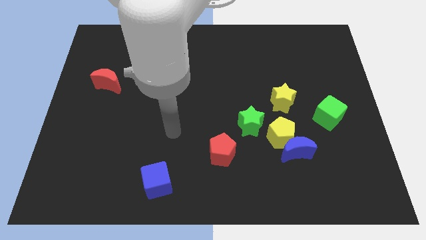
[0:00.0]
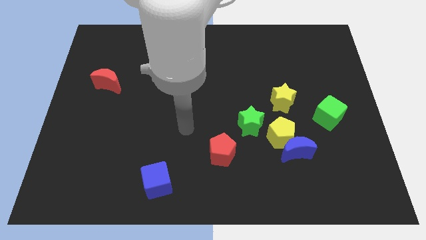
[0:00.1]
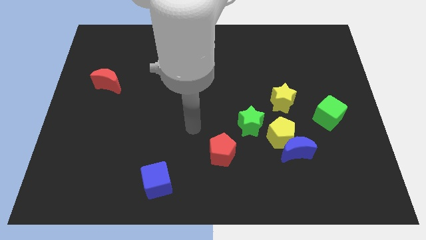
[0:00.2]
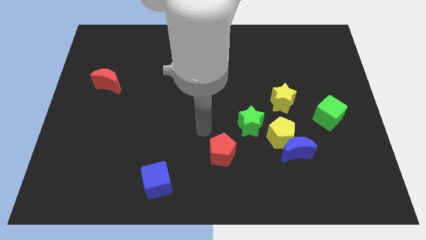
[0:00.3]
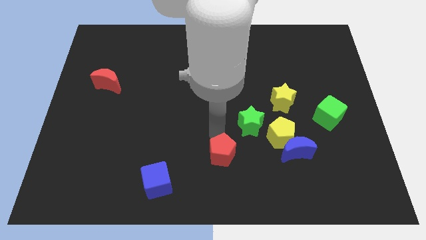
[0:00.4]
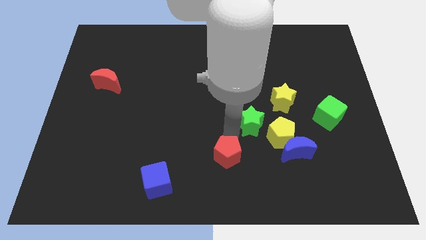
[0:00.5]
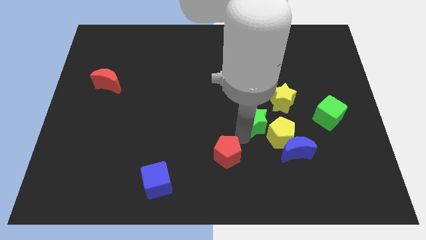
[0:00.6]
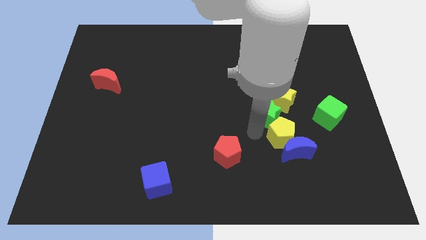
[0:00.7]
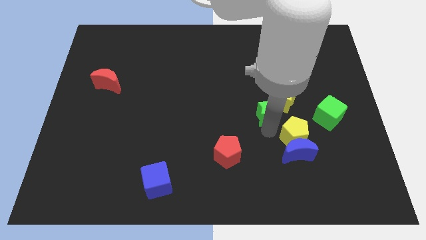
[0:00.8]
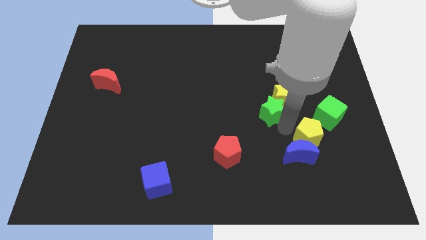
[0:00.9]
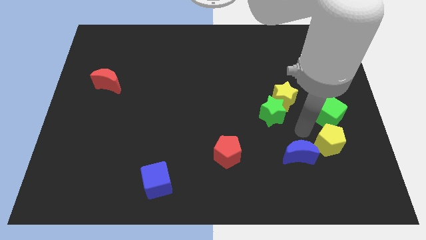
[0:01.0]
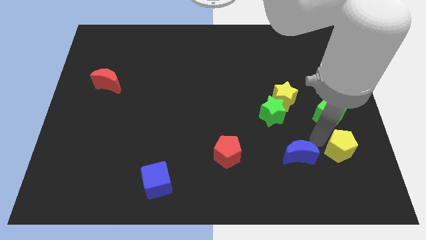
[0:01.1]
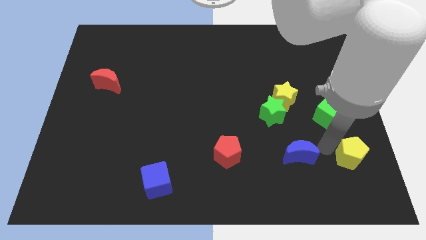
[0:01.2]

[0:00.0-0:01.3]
pull the blue moon apart from the yellow pentagon

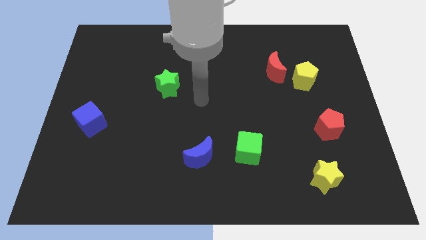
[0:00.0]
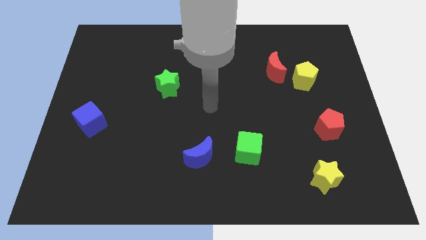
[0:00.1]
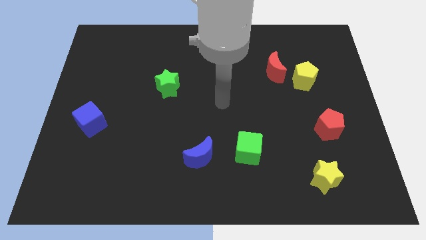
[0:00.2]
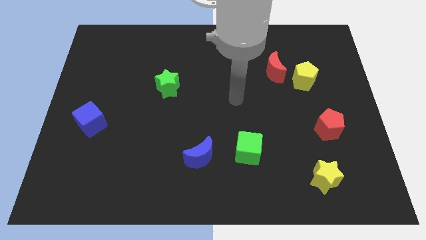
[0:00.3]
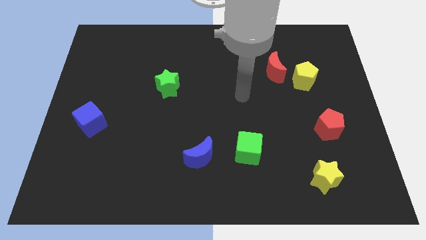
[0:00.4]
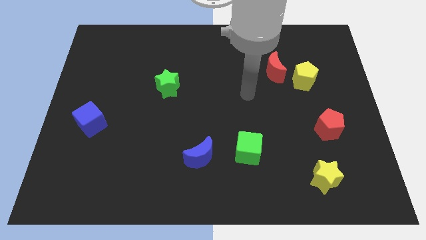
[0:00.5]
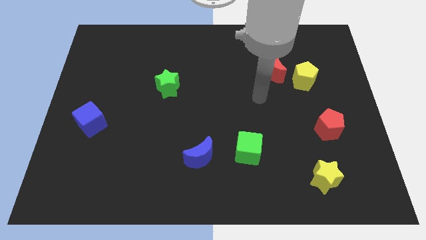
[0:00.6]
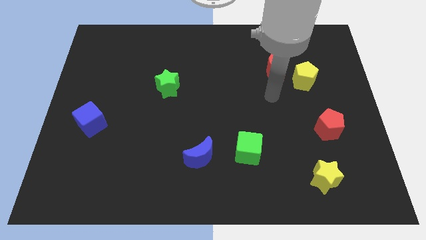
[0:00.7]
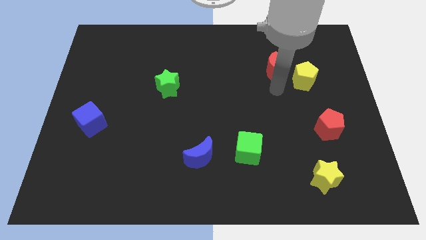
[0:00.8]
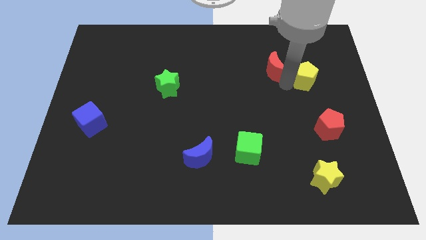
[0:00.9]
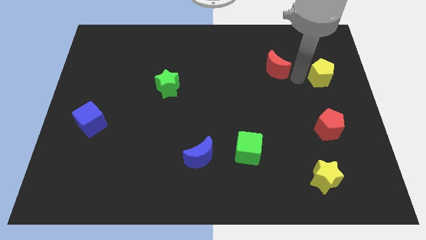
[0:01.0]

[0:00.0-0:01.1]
separate the red moon from the yellow pentagon

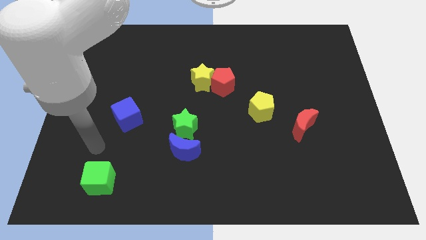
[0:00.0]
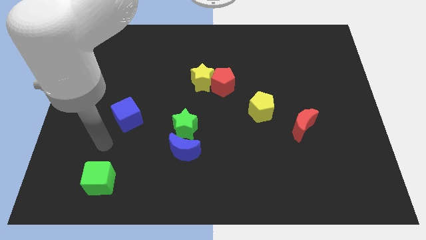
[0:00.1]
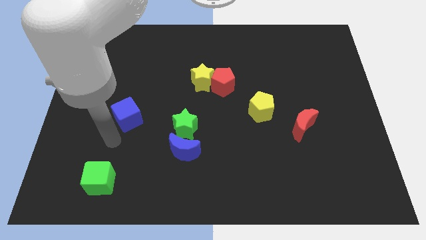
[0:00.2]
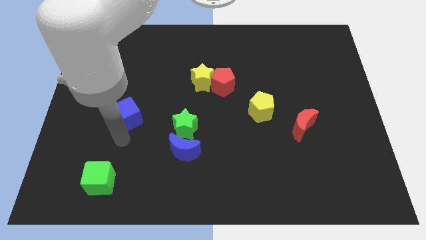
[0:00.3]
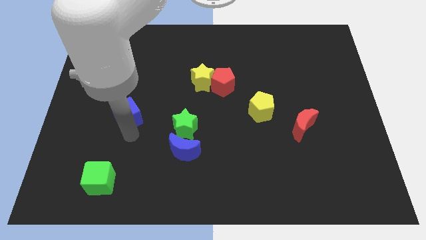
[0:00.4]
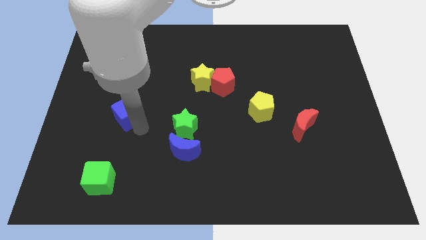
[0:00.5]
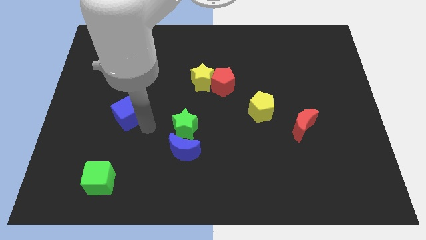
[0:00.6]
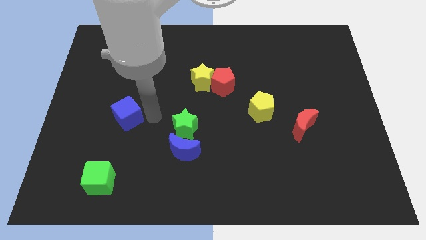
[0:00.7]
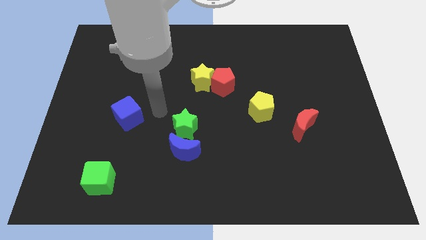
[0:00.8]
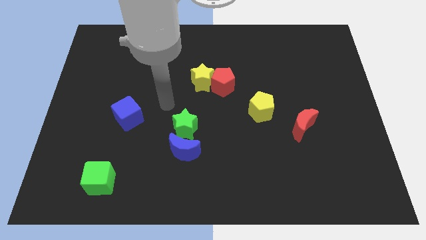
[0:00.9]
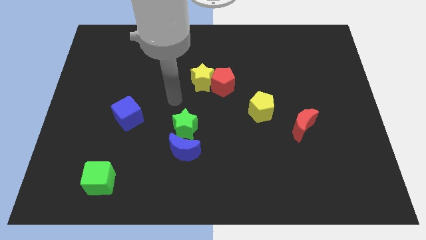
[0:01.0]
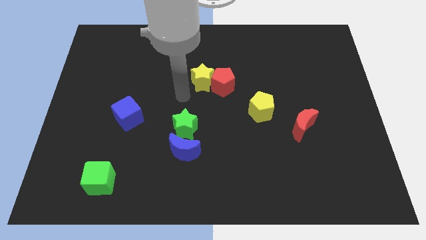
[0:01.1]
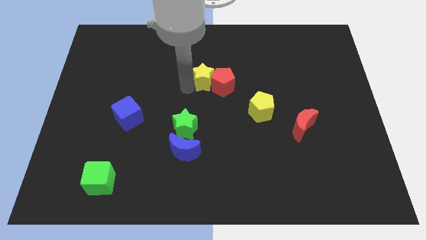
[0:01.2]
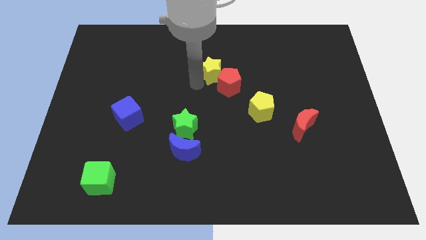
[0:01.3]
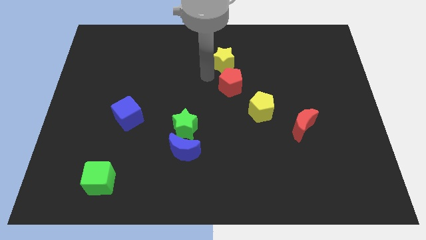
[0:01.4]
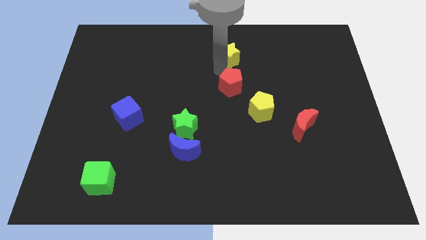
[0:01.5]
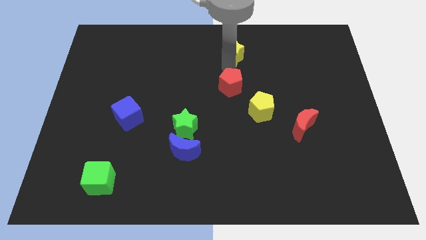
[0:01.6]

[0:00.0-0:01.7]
separate the red pentagon from the yellow star

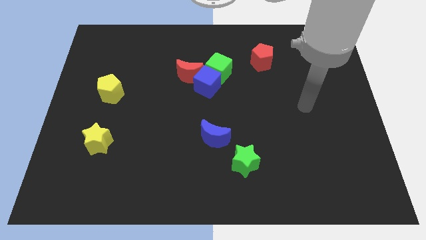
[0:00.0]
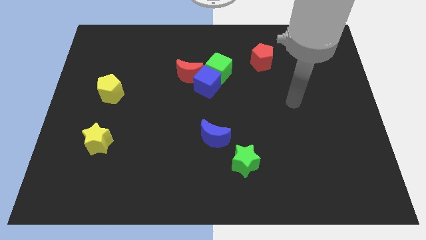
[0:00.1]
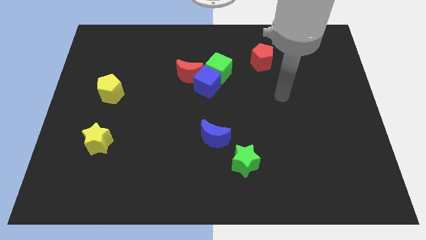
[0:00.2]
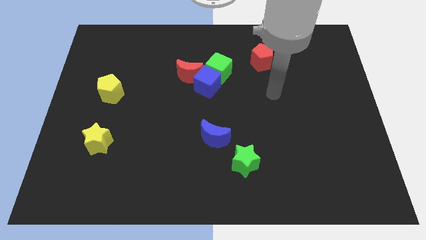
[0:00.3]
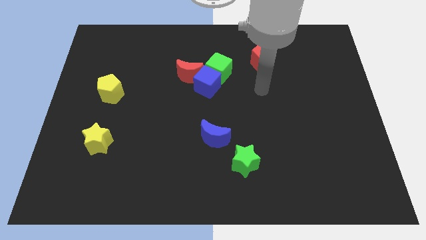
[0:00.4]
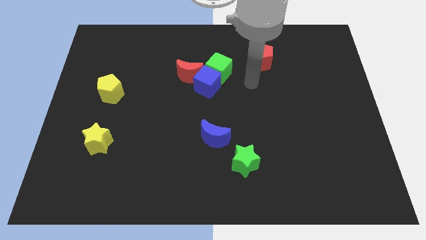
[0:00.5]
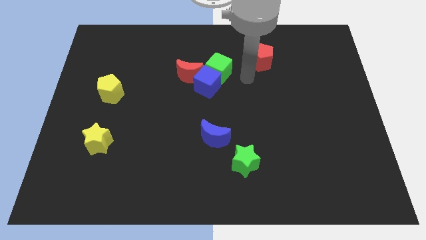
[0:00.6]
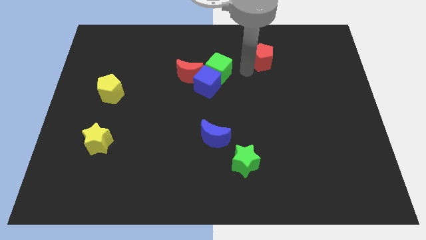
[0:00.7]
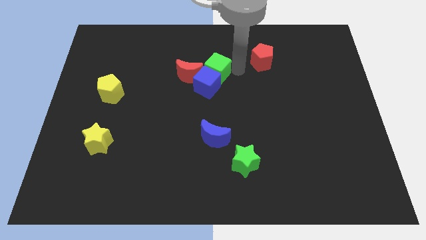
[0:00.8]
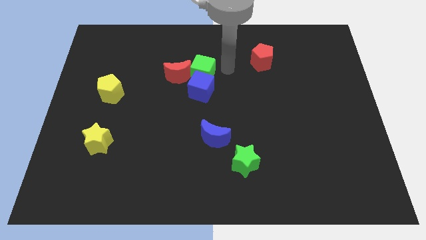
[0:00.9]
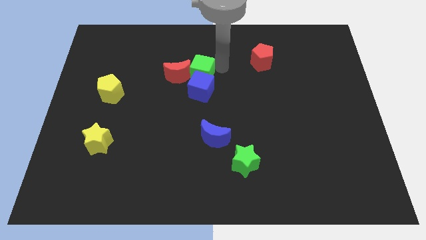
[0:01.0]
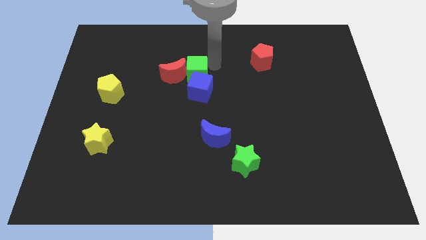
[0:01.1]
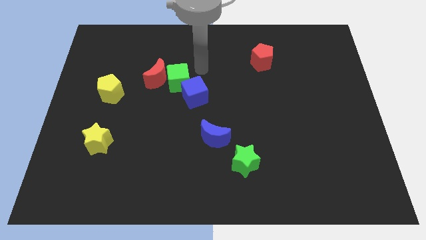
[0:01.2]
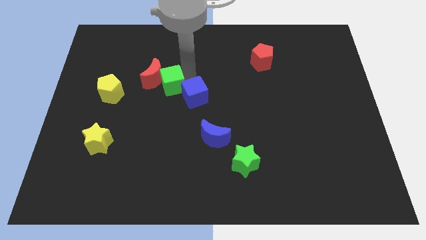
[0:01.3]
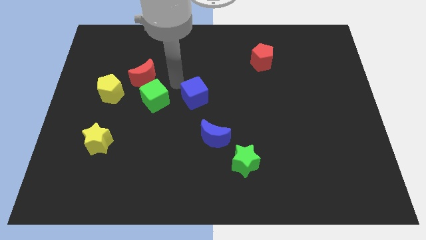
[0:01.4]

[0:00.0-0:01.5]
pull the blue cube apart from the green cube and red moon

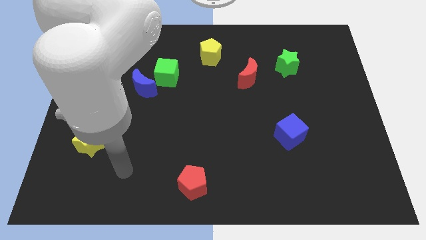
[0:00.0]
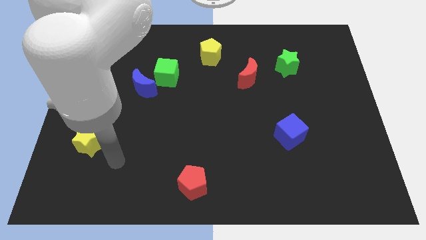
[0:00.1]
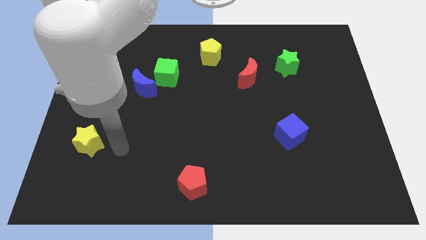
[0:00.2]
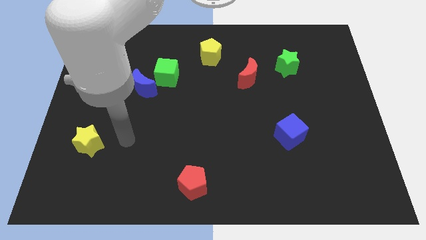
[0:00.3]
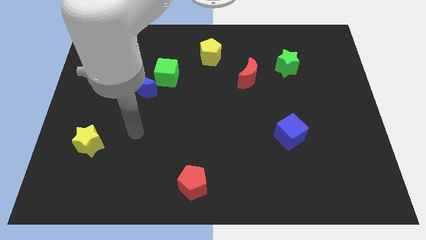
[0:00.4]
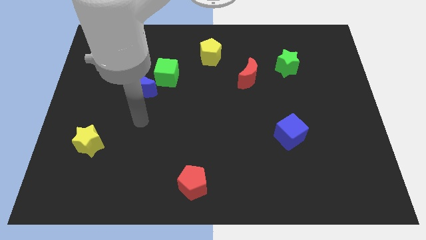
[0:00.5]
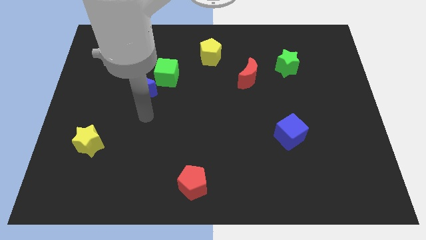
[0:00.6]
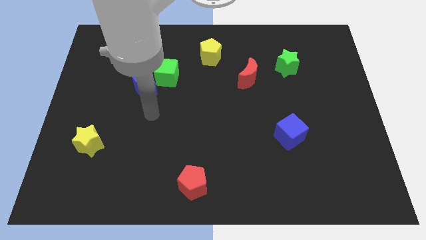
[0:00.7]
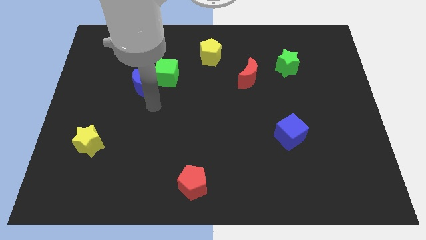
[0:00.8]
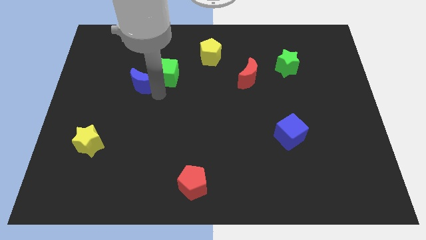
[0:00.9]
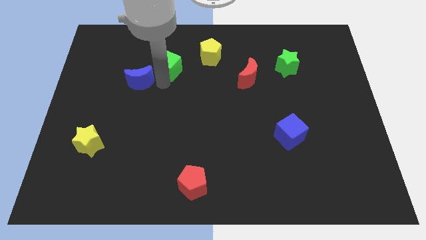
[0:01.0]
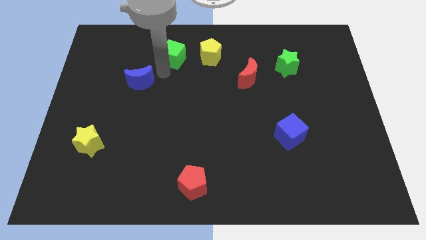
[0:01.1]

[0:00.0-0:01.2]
pull the blue moon apart from the green cube

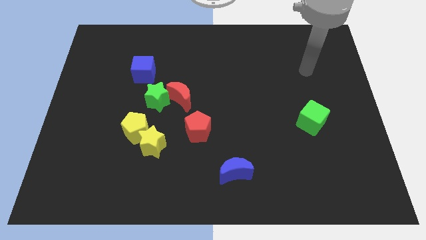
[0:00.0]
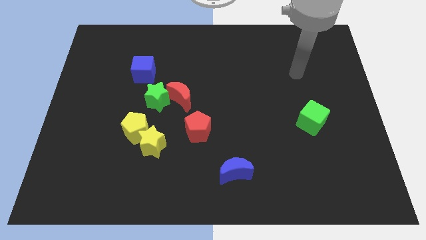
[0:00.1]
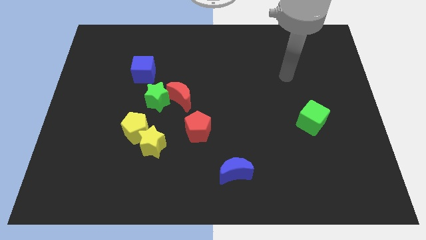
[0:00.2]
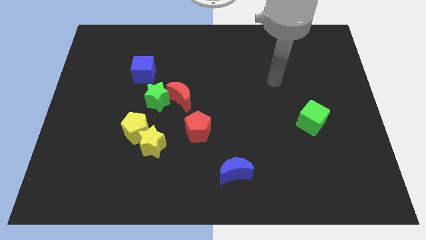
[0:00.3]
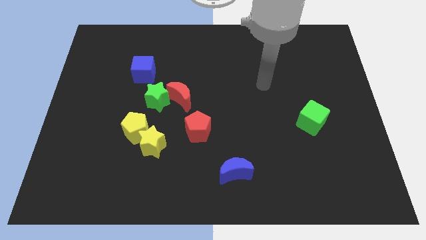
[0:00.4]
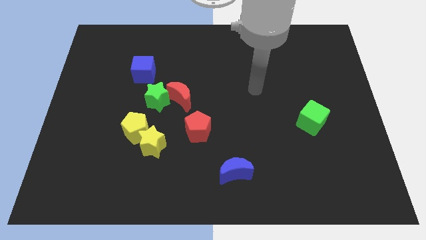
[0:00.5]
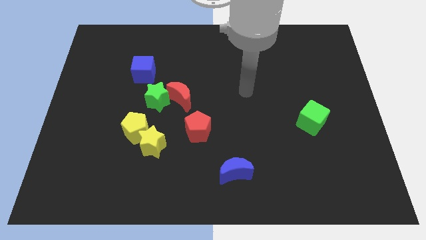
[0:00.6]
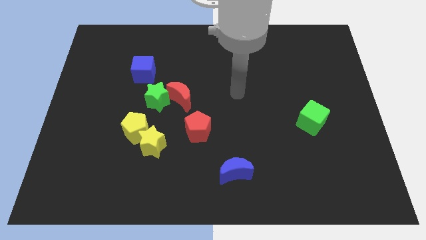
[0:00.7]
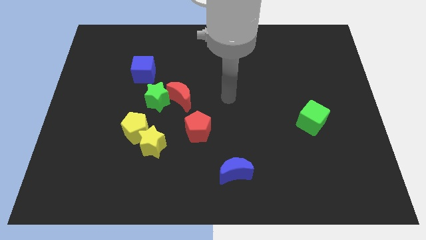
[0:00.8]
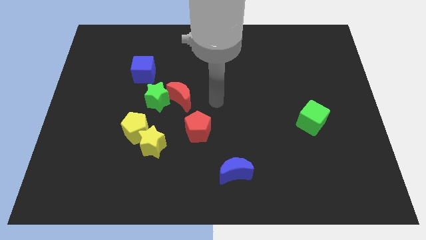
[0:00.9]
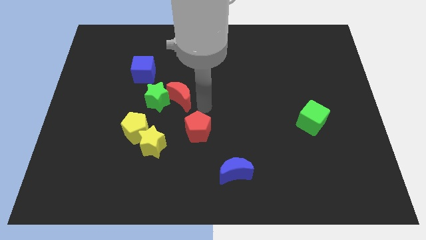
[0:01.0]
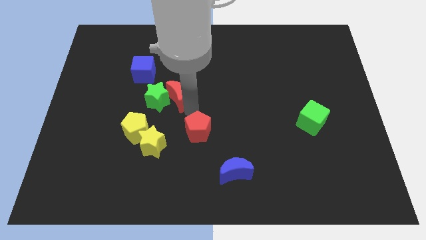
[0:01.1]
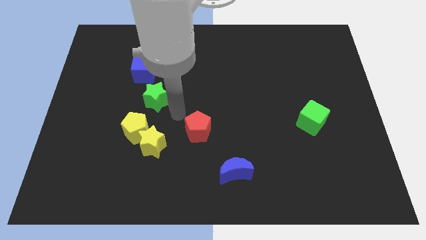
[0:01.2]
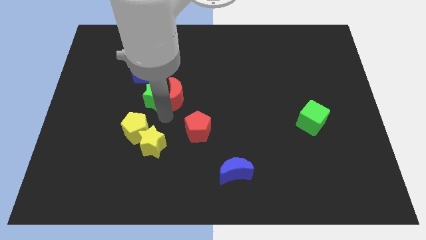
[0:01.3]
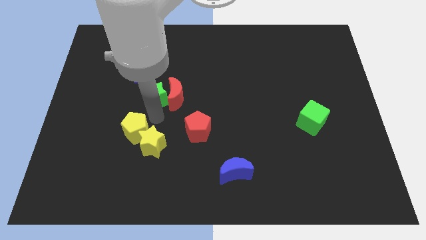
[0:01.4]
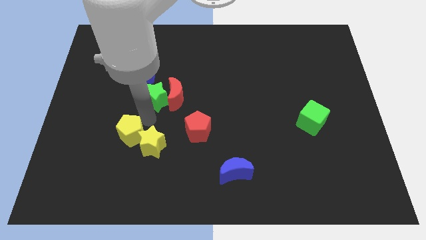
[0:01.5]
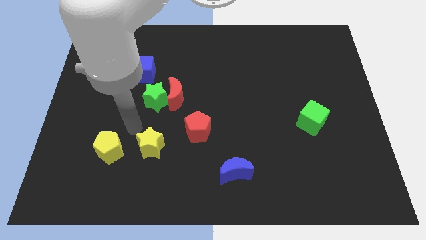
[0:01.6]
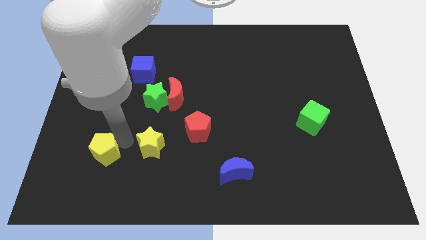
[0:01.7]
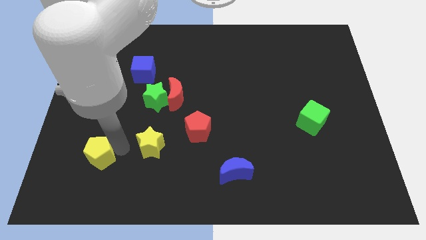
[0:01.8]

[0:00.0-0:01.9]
separate the yellow star from the yellow pentagon

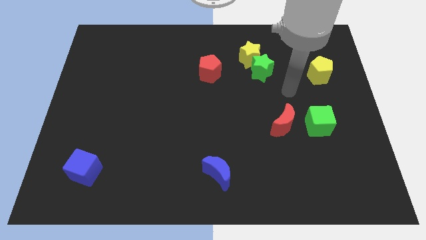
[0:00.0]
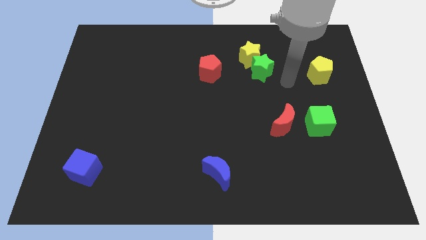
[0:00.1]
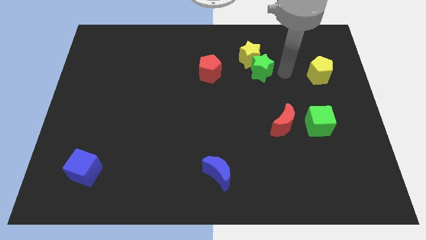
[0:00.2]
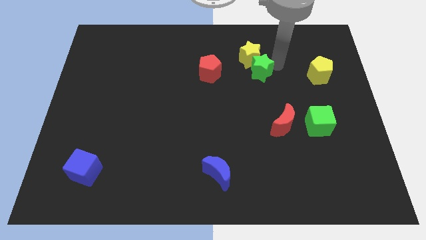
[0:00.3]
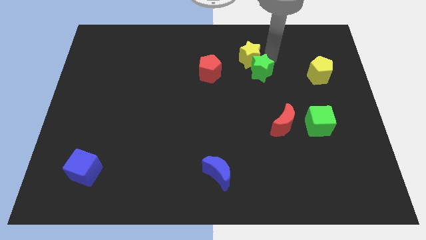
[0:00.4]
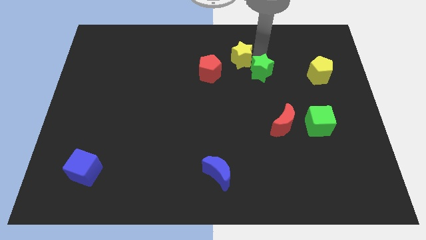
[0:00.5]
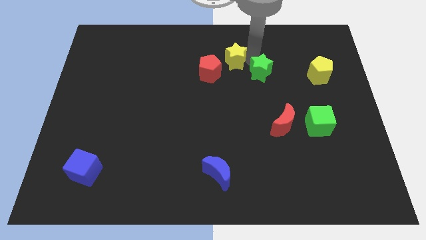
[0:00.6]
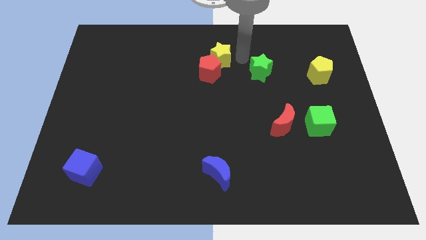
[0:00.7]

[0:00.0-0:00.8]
pull the green star apart from the yellow star
